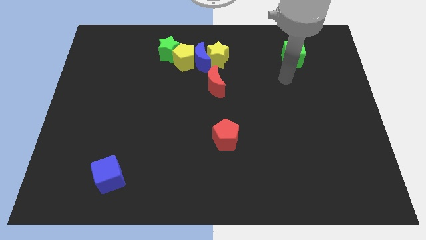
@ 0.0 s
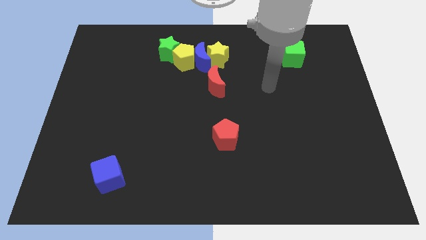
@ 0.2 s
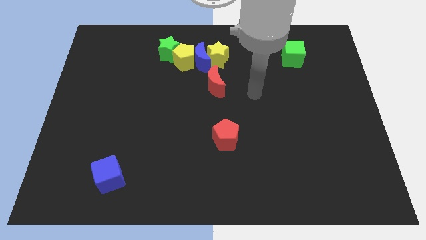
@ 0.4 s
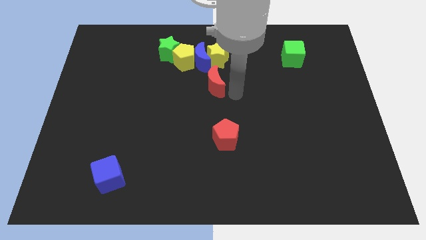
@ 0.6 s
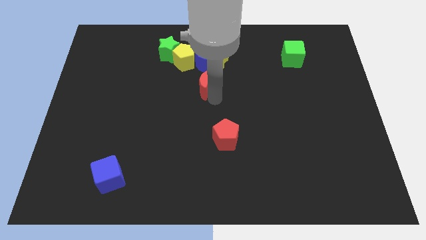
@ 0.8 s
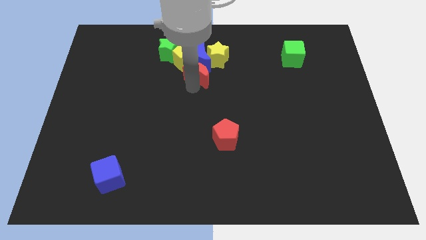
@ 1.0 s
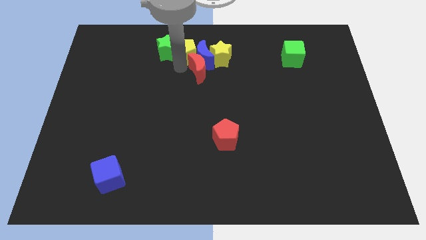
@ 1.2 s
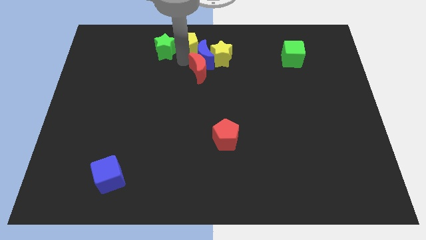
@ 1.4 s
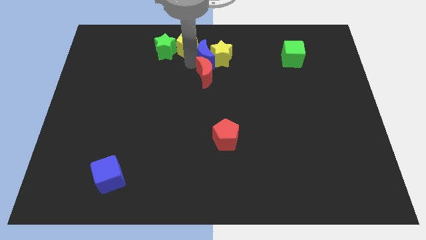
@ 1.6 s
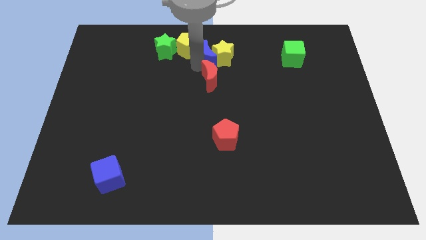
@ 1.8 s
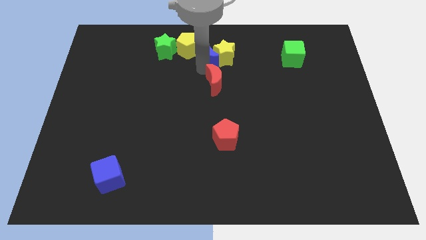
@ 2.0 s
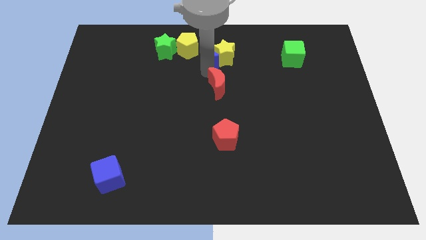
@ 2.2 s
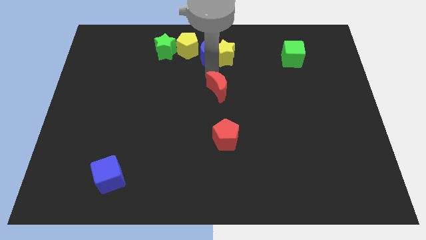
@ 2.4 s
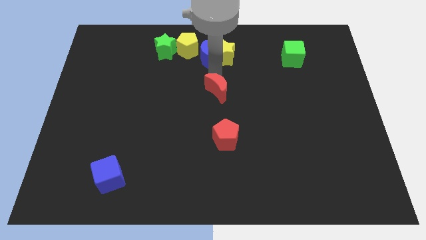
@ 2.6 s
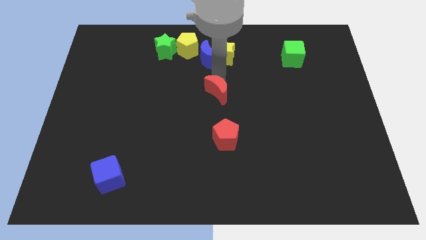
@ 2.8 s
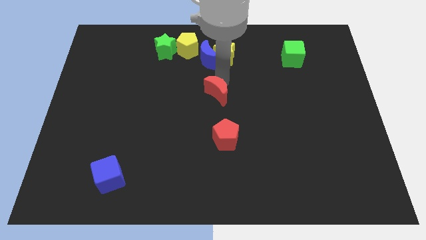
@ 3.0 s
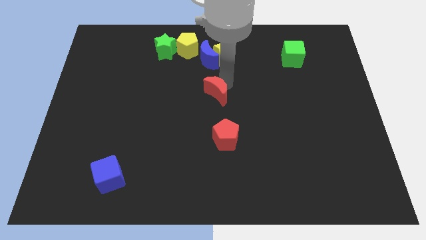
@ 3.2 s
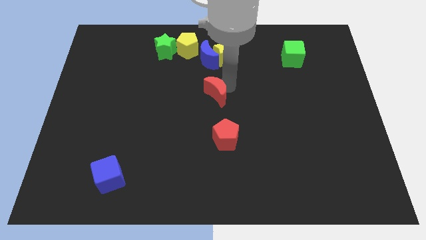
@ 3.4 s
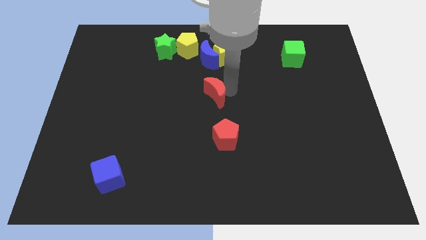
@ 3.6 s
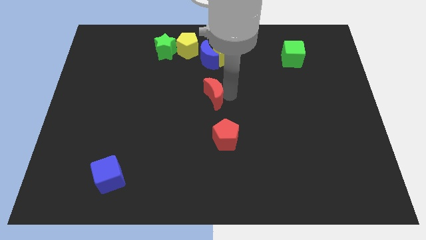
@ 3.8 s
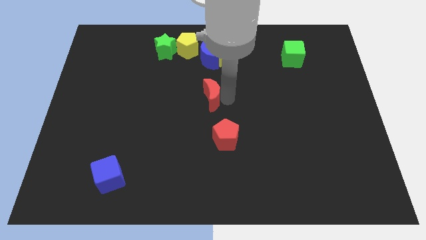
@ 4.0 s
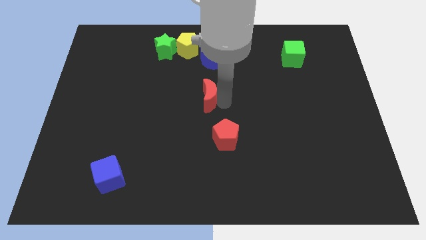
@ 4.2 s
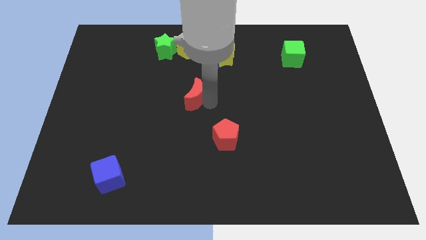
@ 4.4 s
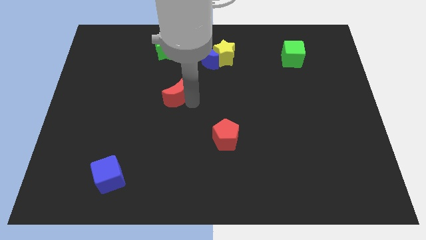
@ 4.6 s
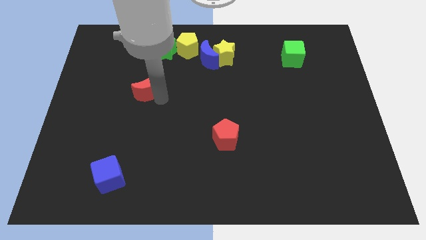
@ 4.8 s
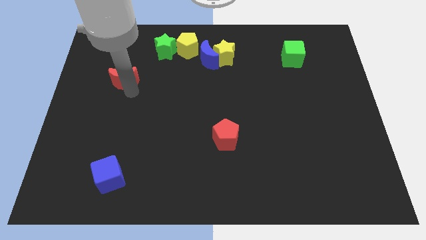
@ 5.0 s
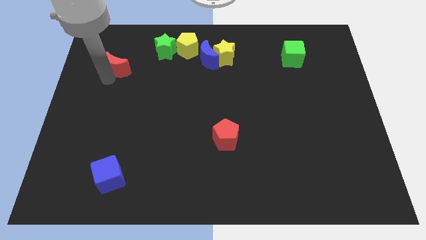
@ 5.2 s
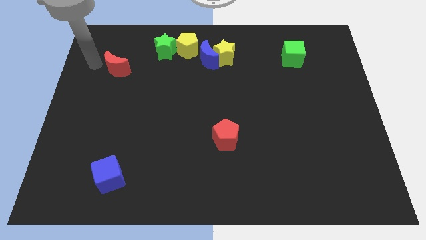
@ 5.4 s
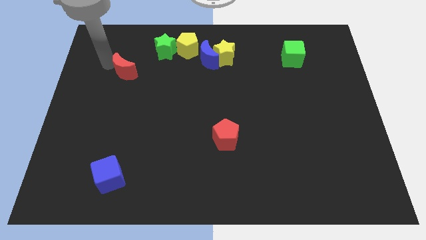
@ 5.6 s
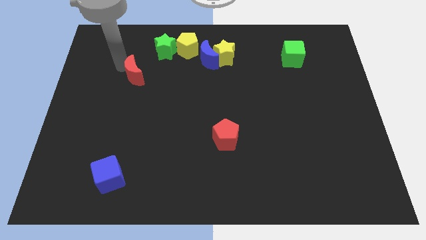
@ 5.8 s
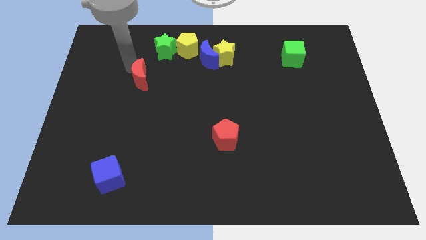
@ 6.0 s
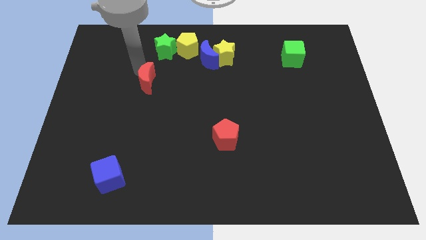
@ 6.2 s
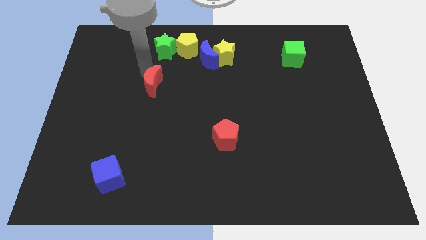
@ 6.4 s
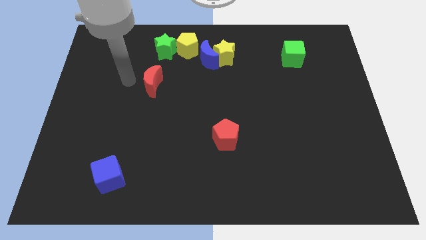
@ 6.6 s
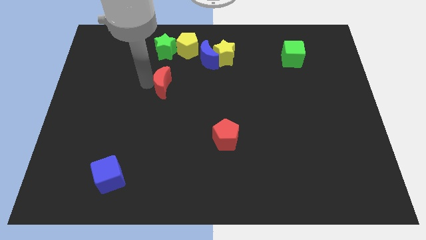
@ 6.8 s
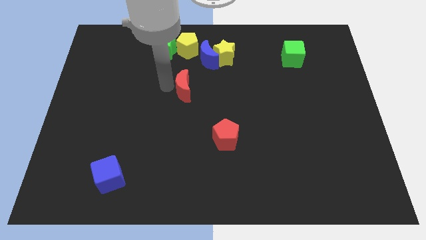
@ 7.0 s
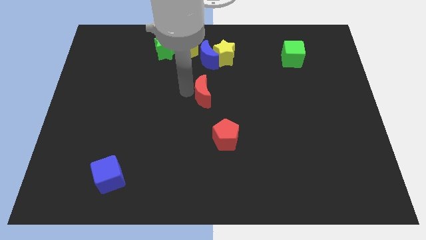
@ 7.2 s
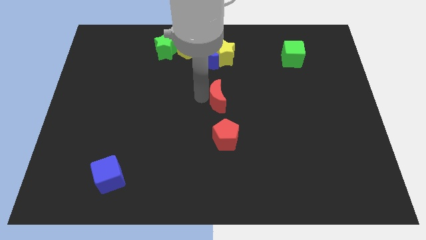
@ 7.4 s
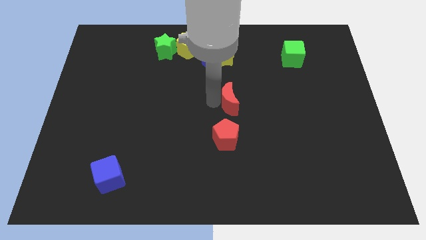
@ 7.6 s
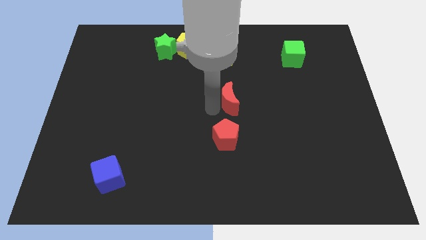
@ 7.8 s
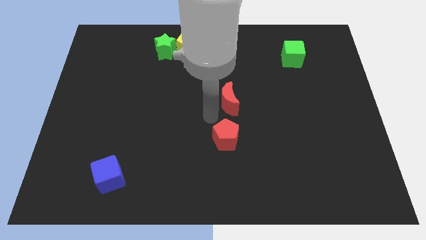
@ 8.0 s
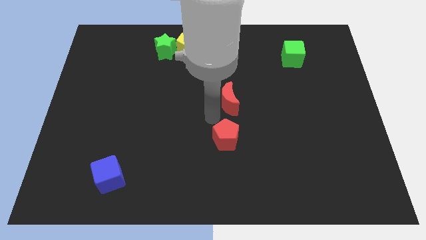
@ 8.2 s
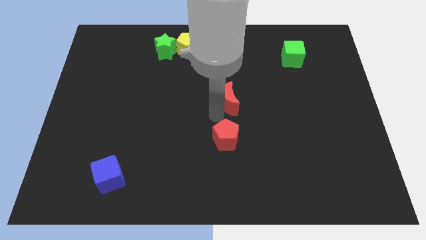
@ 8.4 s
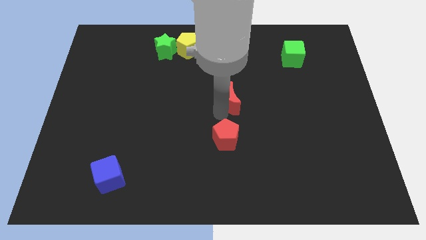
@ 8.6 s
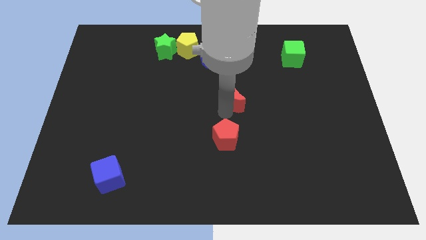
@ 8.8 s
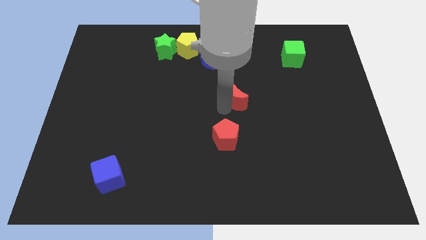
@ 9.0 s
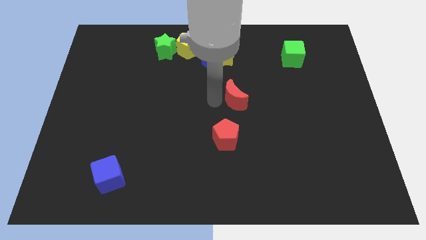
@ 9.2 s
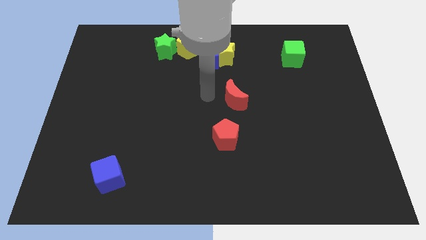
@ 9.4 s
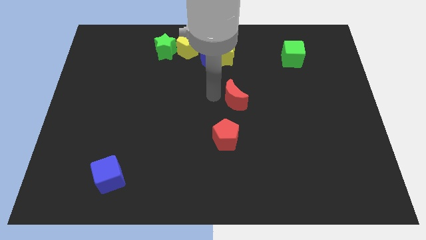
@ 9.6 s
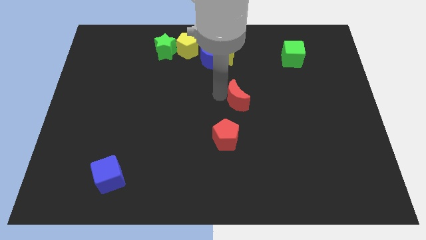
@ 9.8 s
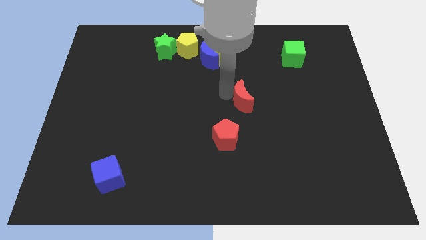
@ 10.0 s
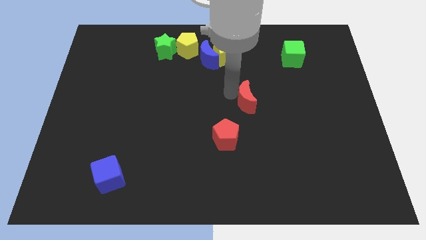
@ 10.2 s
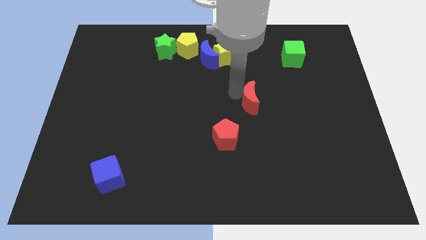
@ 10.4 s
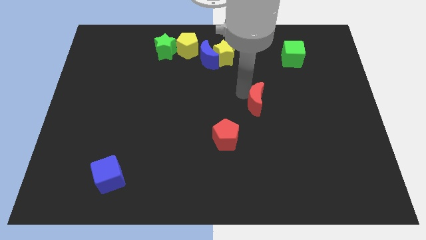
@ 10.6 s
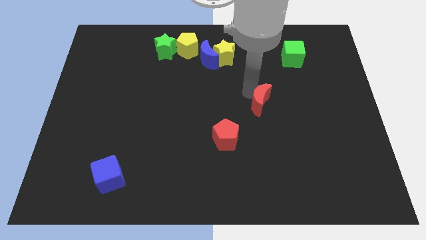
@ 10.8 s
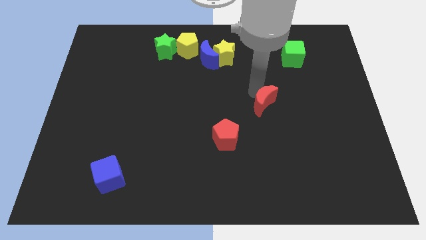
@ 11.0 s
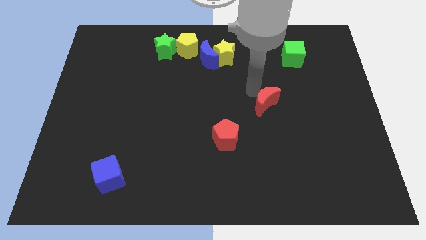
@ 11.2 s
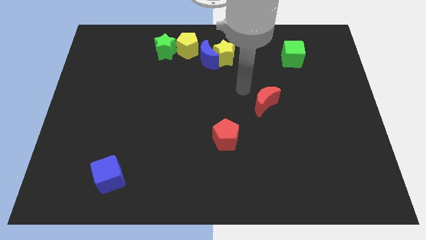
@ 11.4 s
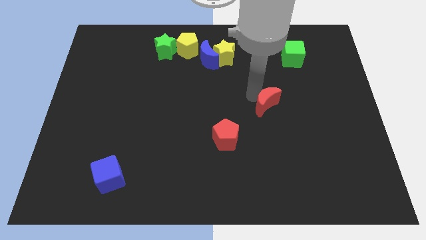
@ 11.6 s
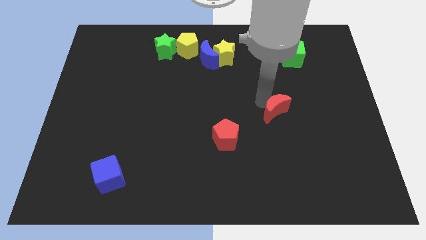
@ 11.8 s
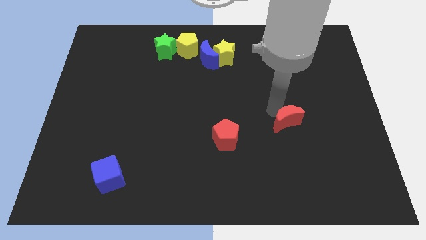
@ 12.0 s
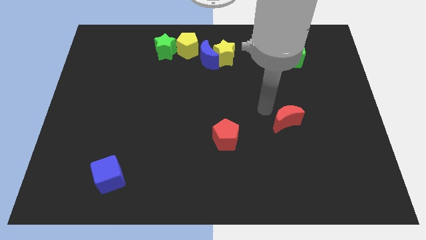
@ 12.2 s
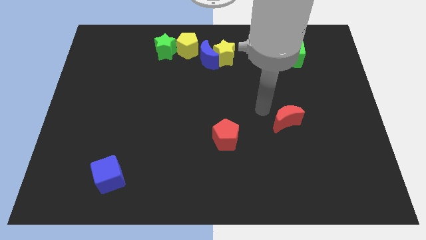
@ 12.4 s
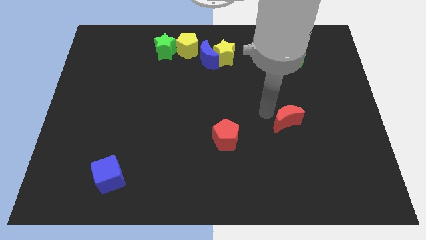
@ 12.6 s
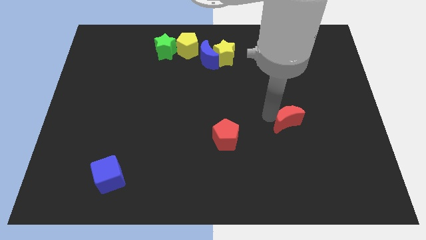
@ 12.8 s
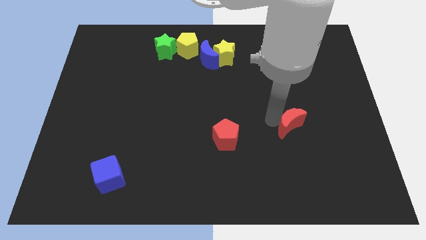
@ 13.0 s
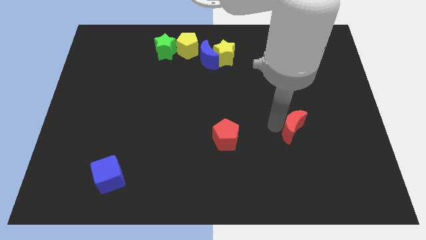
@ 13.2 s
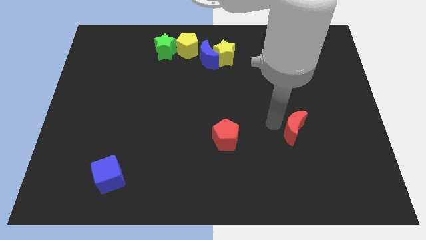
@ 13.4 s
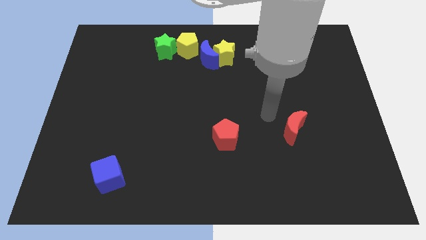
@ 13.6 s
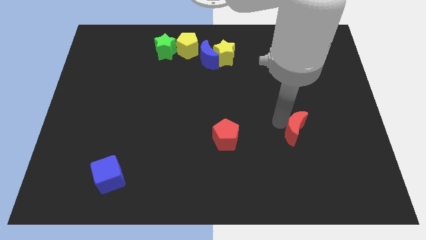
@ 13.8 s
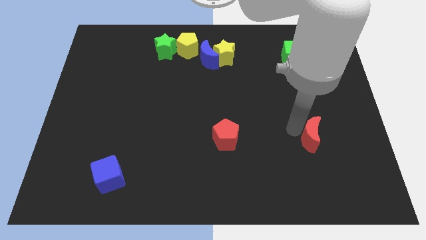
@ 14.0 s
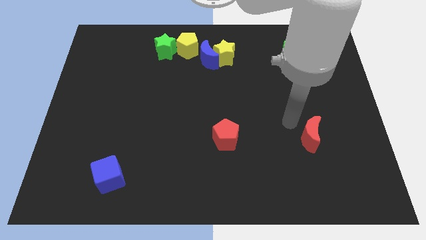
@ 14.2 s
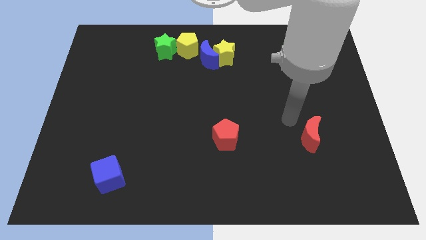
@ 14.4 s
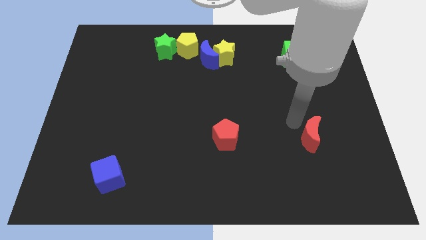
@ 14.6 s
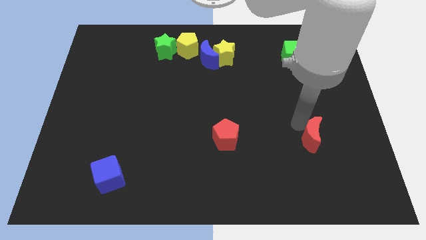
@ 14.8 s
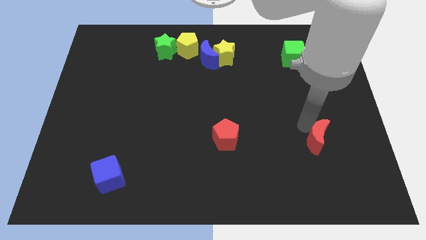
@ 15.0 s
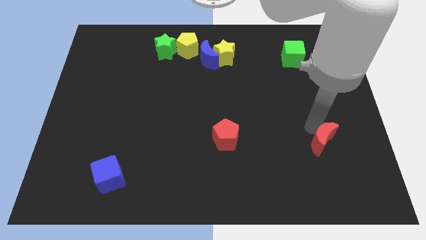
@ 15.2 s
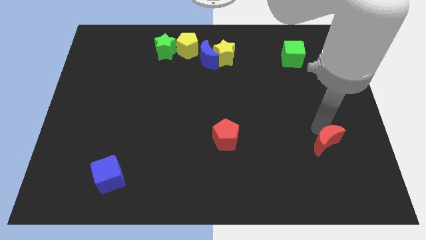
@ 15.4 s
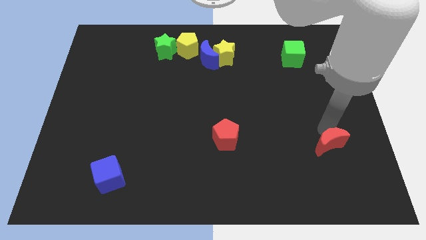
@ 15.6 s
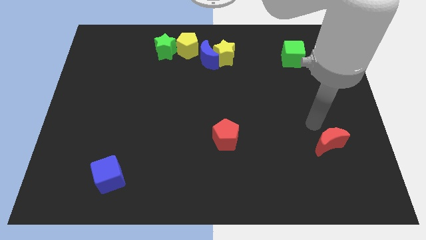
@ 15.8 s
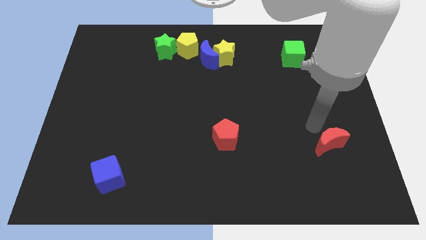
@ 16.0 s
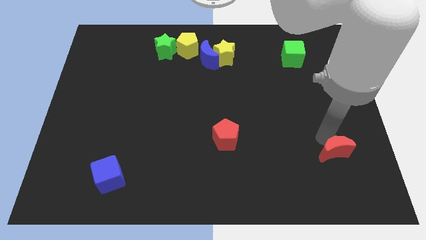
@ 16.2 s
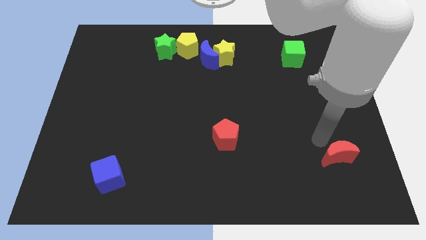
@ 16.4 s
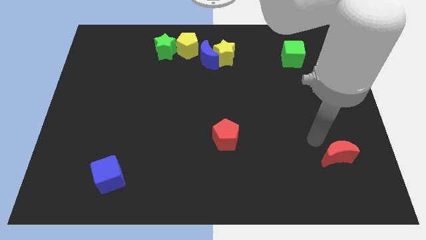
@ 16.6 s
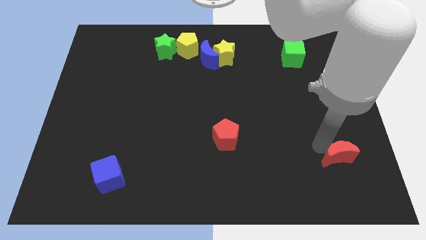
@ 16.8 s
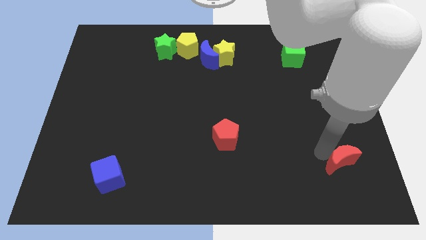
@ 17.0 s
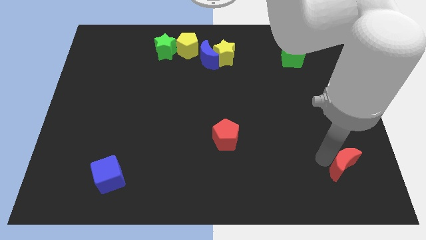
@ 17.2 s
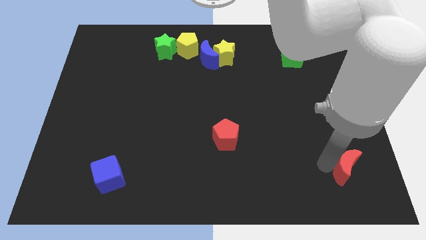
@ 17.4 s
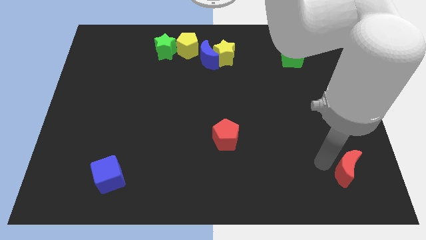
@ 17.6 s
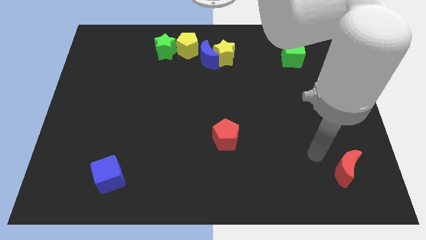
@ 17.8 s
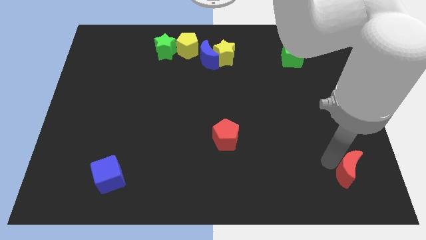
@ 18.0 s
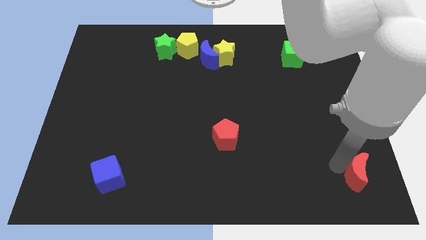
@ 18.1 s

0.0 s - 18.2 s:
put the red moon to the bottom right corner
